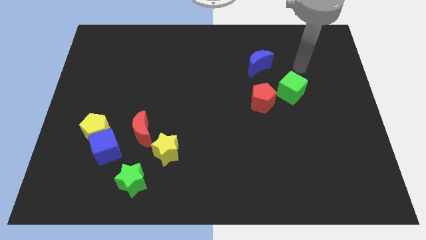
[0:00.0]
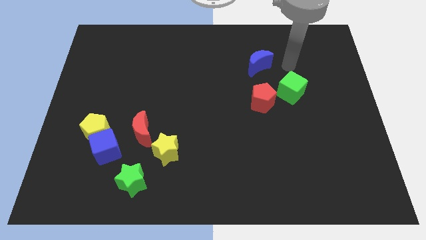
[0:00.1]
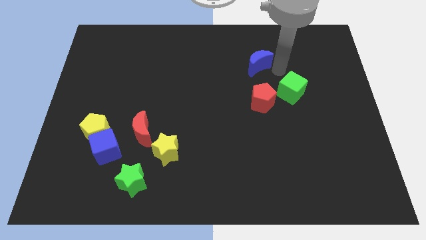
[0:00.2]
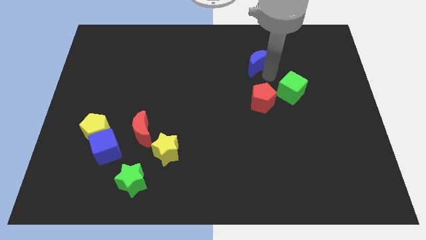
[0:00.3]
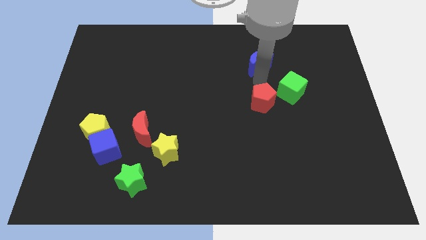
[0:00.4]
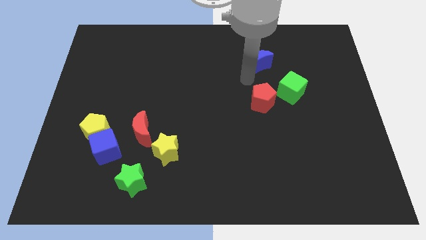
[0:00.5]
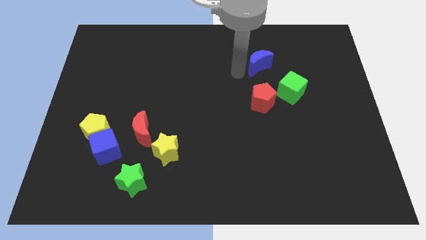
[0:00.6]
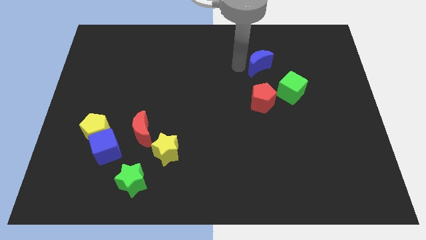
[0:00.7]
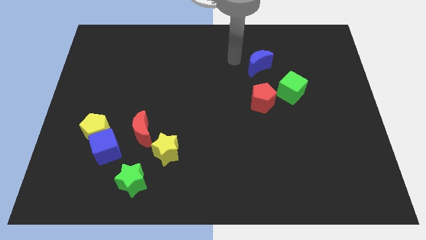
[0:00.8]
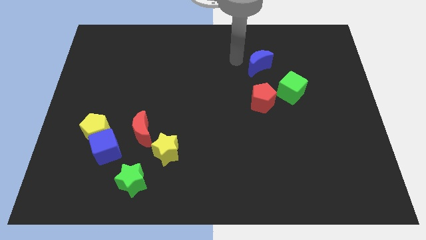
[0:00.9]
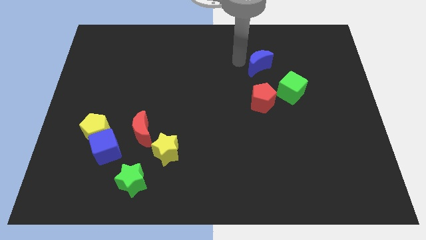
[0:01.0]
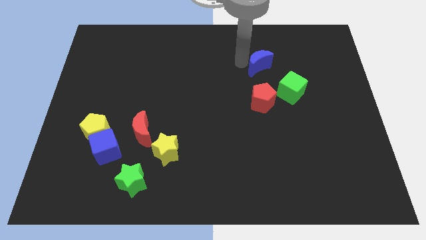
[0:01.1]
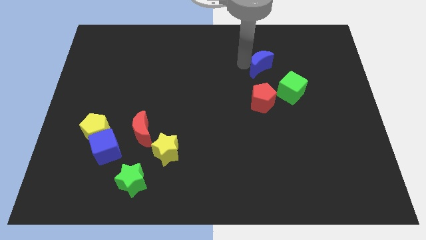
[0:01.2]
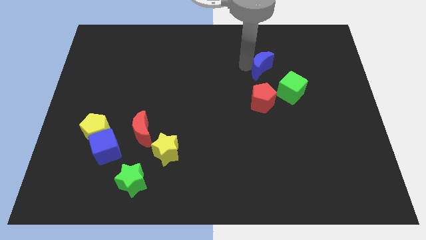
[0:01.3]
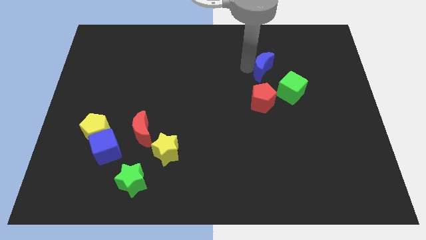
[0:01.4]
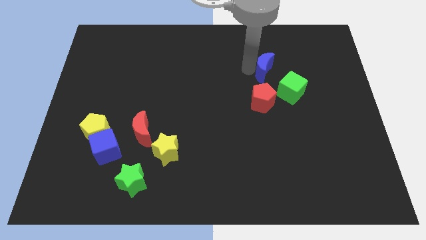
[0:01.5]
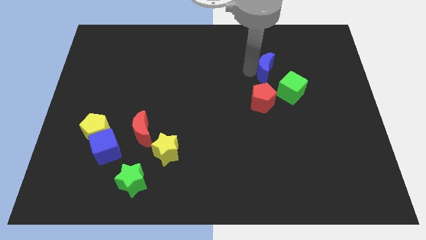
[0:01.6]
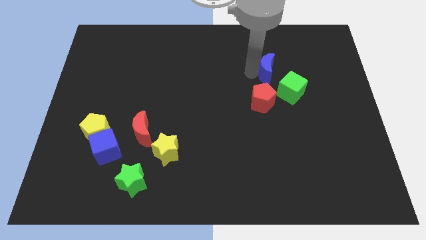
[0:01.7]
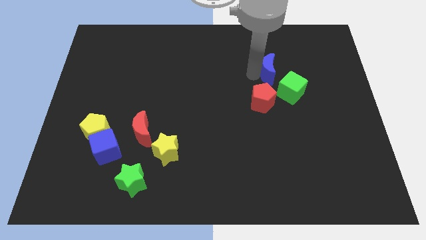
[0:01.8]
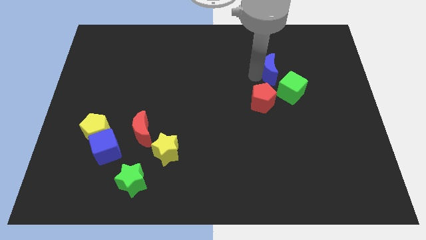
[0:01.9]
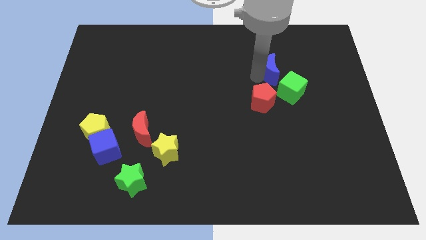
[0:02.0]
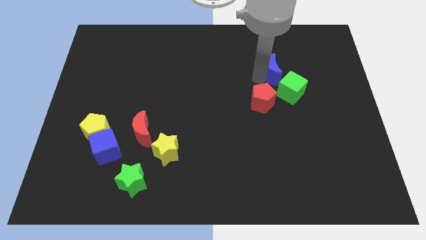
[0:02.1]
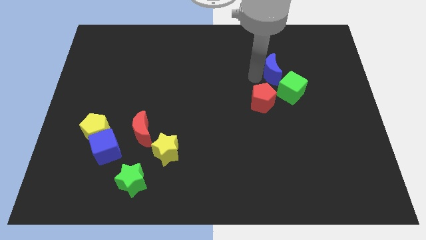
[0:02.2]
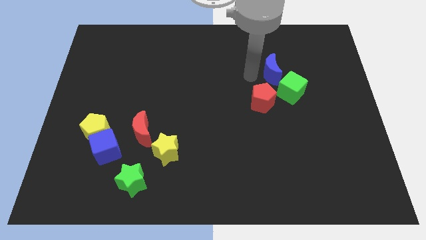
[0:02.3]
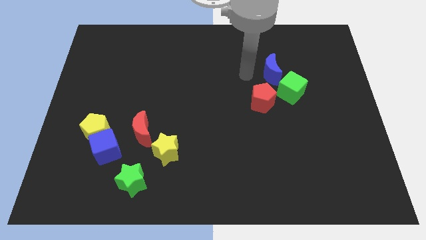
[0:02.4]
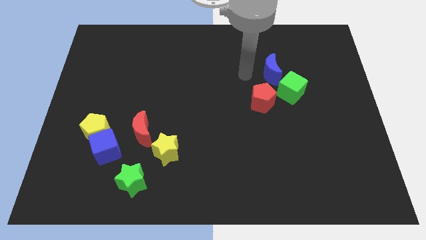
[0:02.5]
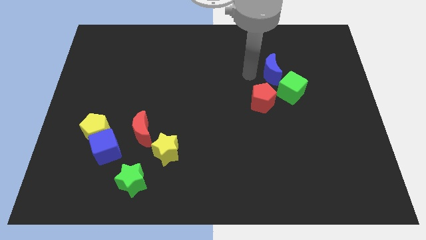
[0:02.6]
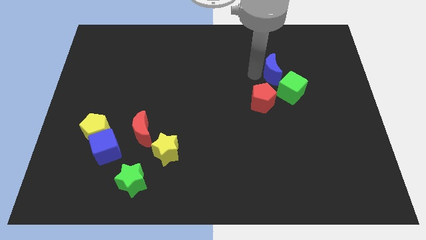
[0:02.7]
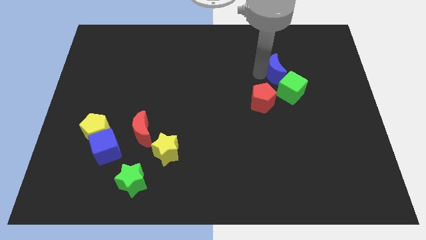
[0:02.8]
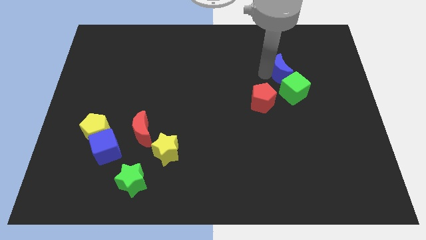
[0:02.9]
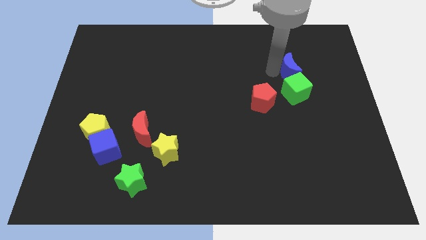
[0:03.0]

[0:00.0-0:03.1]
slightly push the blue moon downwards and right diagonally

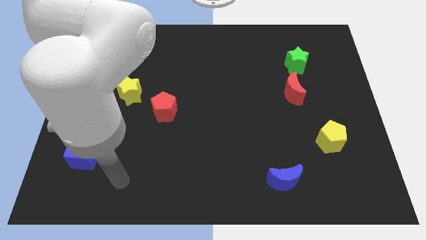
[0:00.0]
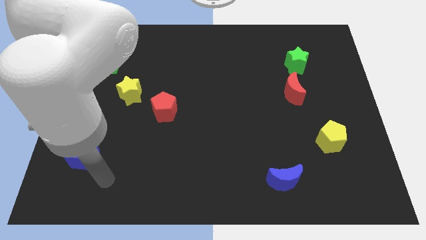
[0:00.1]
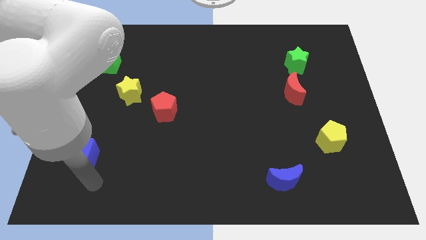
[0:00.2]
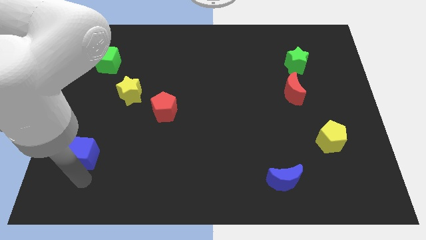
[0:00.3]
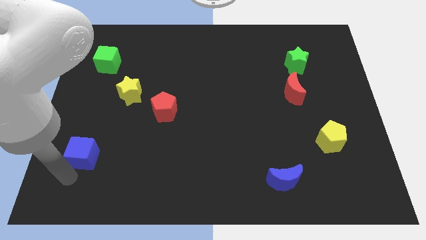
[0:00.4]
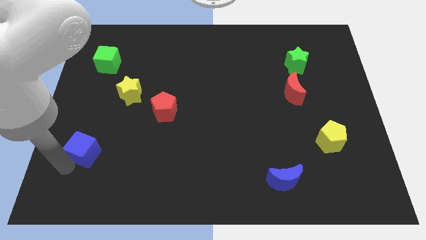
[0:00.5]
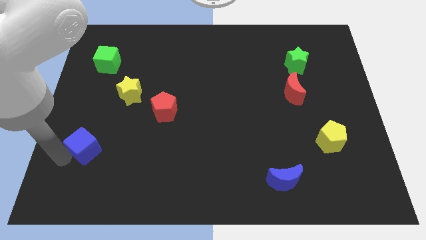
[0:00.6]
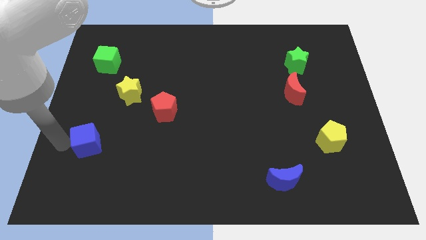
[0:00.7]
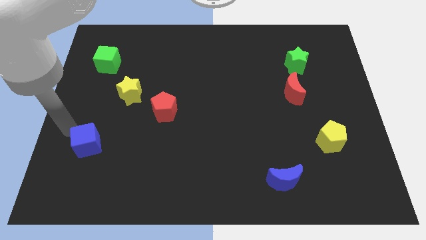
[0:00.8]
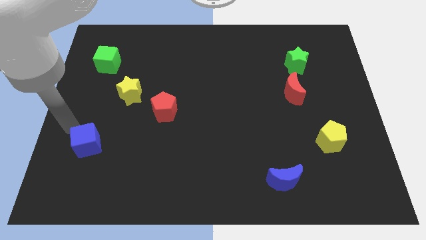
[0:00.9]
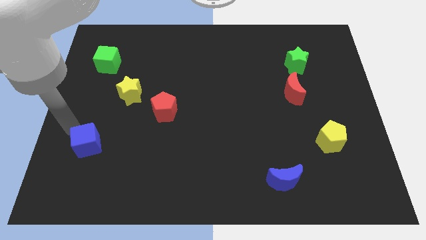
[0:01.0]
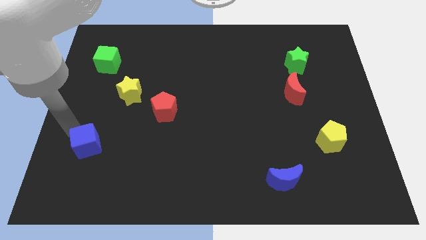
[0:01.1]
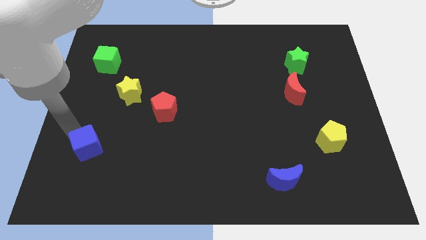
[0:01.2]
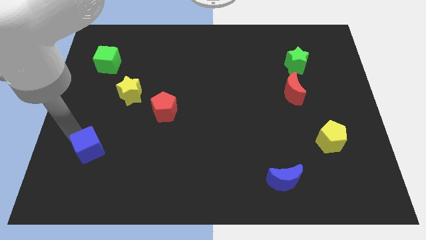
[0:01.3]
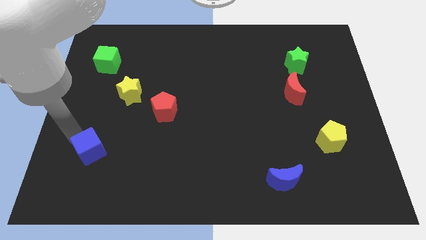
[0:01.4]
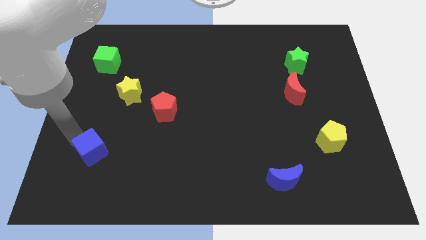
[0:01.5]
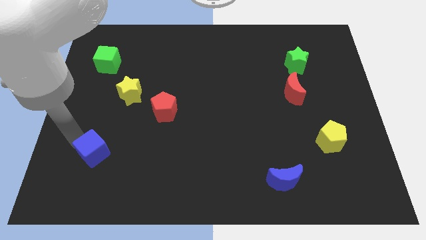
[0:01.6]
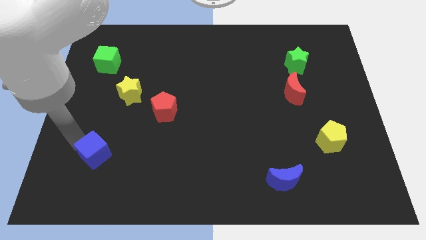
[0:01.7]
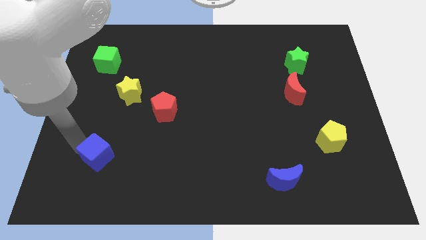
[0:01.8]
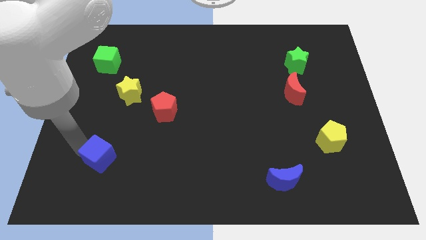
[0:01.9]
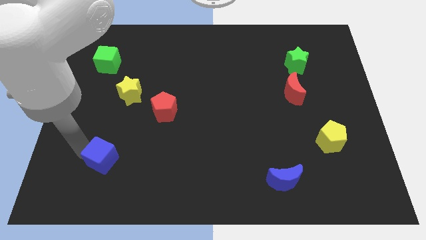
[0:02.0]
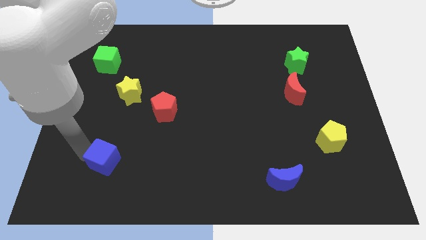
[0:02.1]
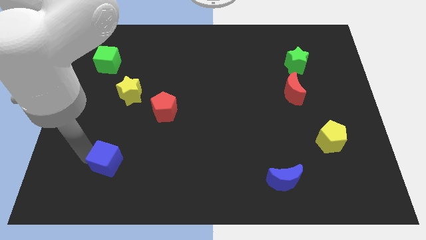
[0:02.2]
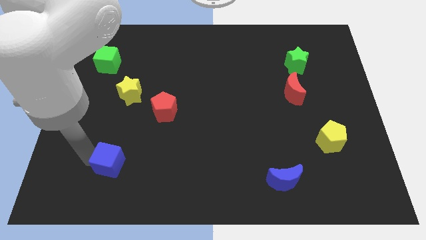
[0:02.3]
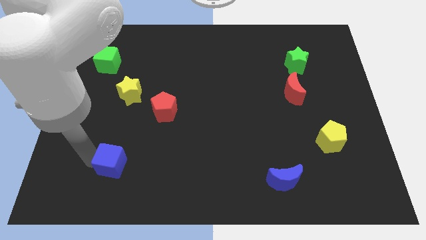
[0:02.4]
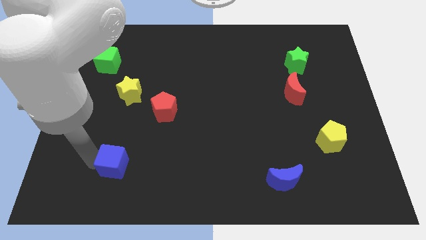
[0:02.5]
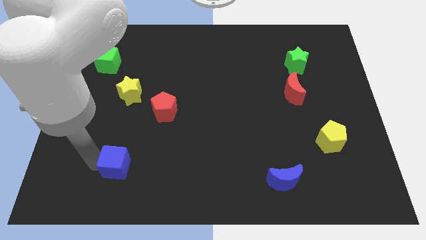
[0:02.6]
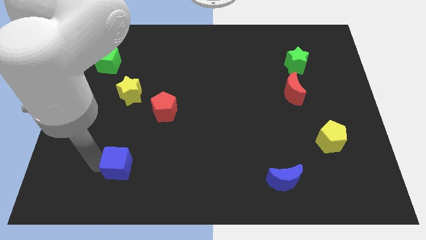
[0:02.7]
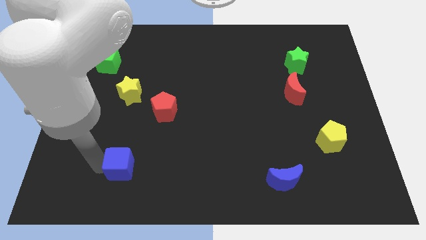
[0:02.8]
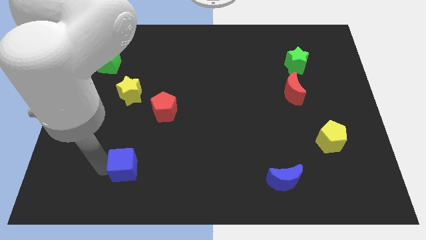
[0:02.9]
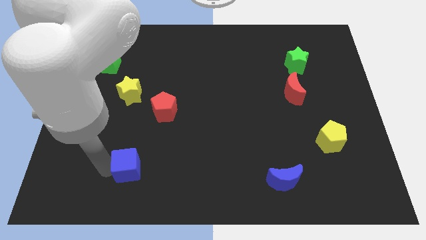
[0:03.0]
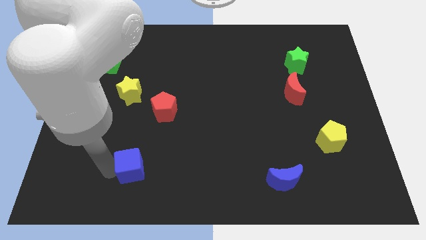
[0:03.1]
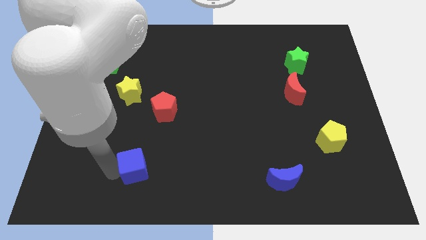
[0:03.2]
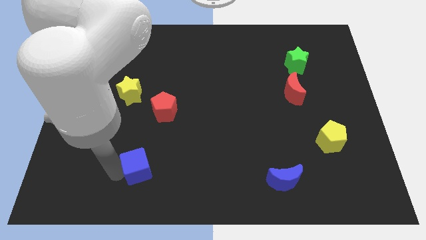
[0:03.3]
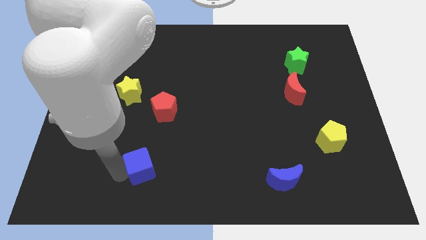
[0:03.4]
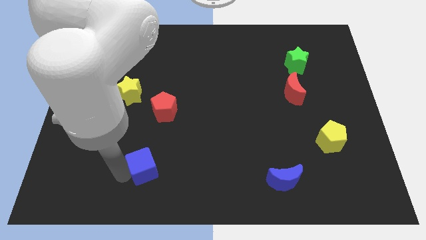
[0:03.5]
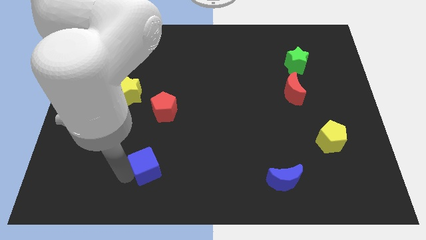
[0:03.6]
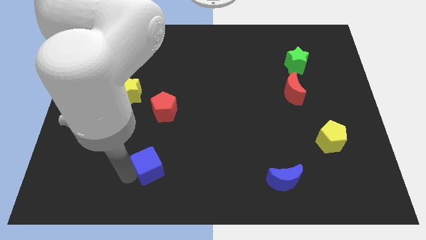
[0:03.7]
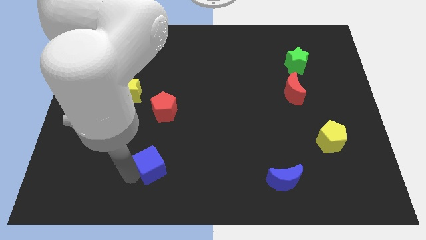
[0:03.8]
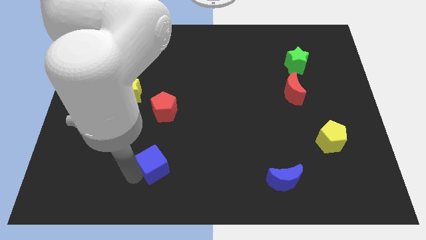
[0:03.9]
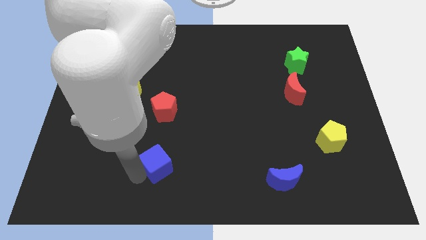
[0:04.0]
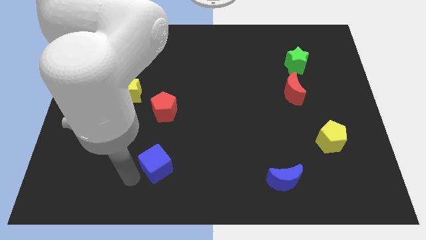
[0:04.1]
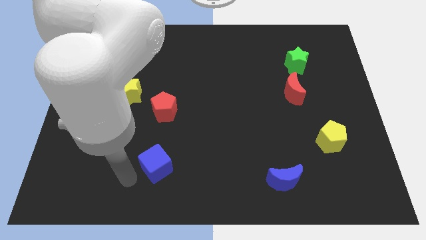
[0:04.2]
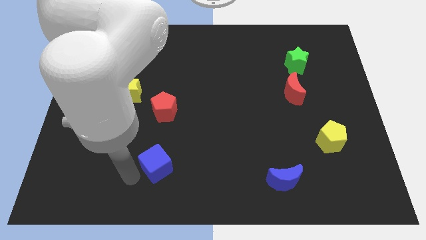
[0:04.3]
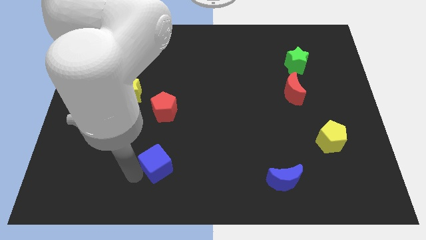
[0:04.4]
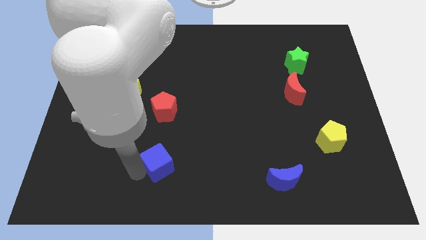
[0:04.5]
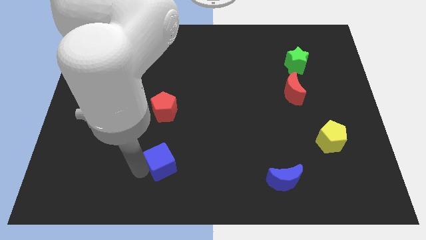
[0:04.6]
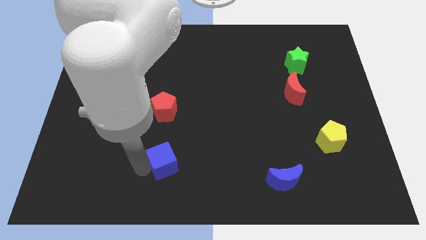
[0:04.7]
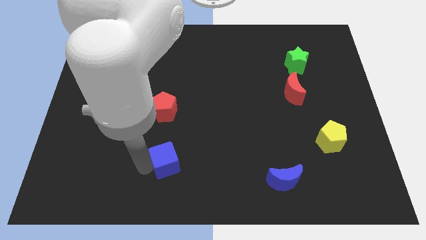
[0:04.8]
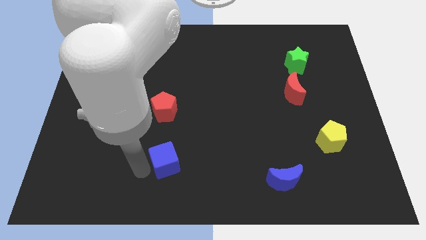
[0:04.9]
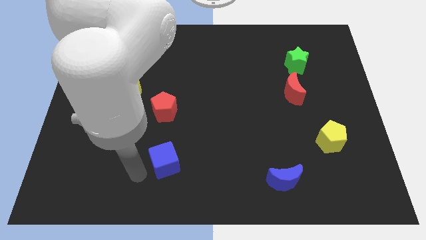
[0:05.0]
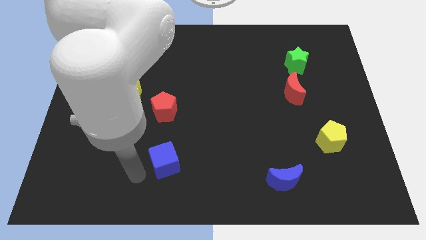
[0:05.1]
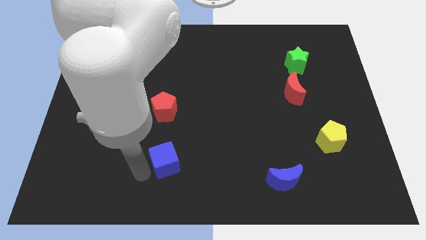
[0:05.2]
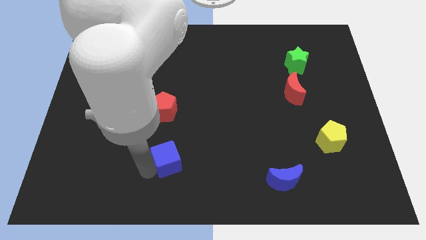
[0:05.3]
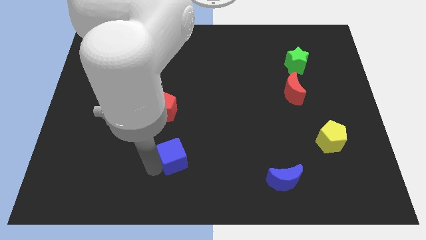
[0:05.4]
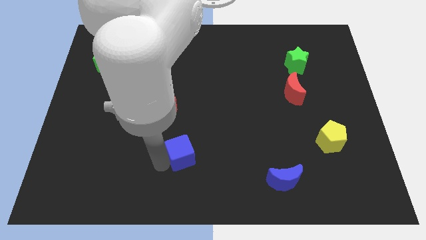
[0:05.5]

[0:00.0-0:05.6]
slide the blue cube right
